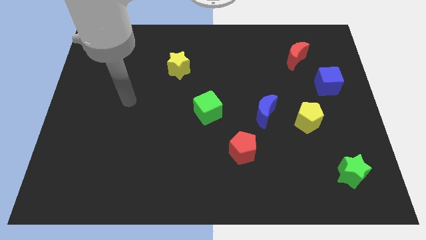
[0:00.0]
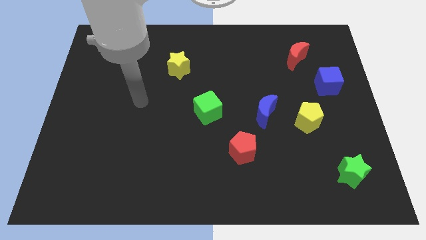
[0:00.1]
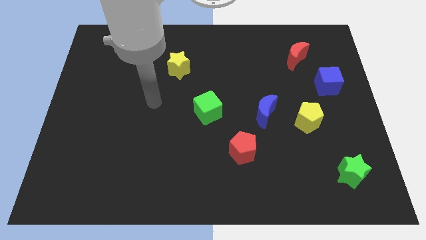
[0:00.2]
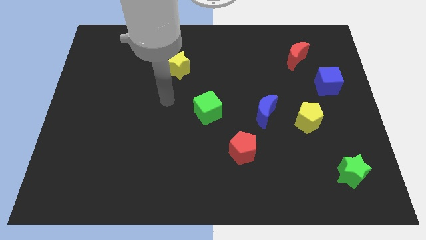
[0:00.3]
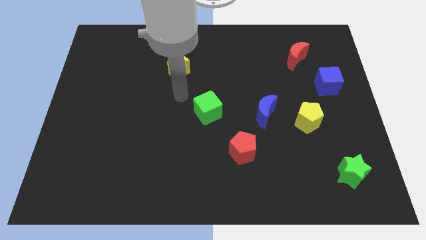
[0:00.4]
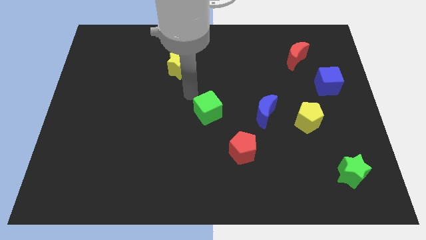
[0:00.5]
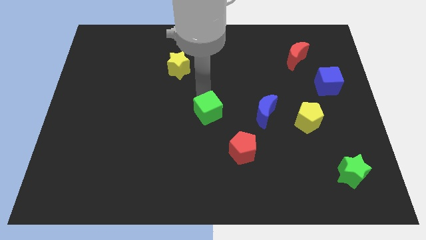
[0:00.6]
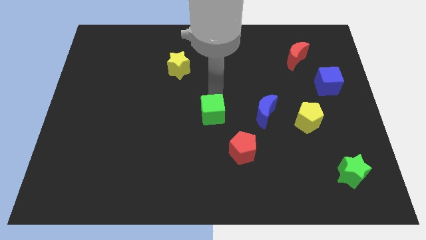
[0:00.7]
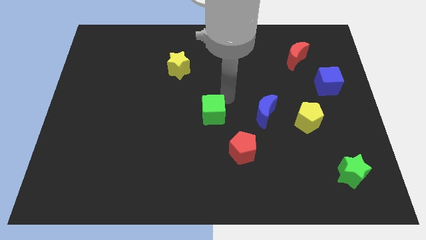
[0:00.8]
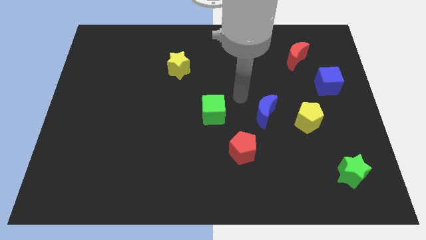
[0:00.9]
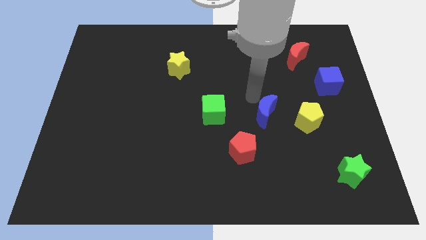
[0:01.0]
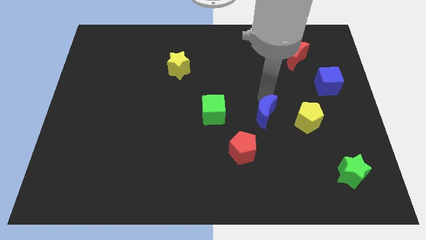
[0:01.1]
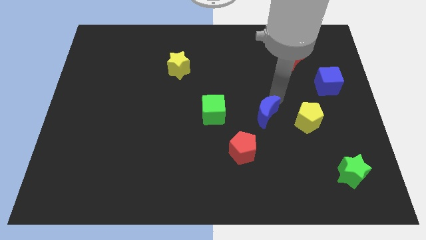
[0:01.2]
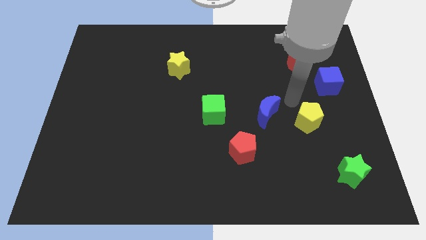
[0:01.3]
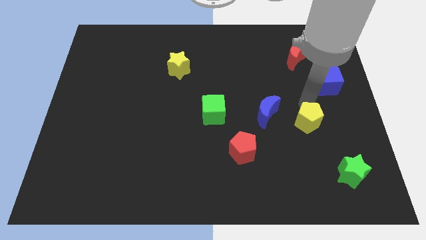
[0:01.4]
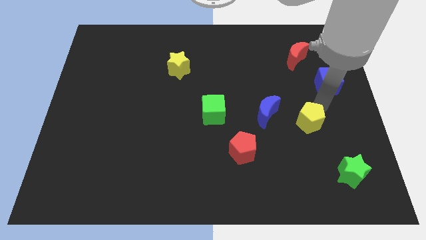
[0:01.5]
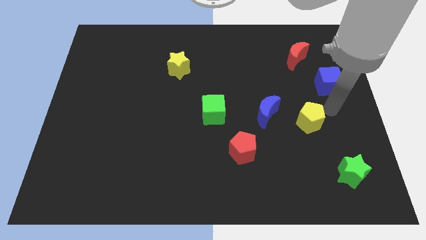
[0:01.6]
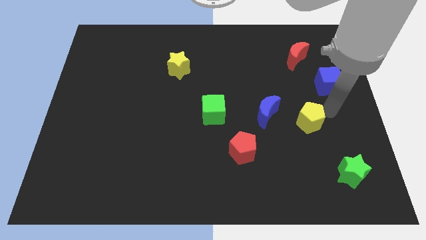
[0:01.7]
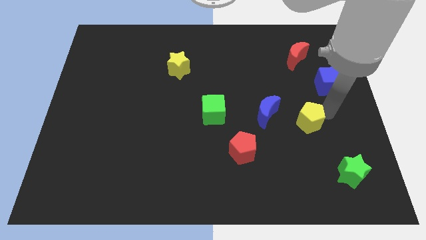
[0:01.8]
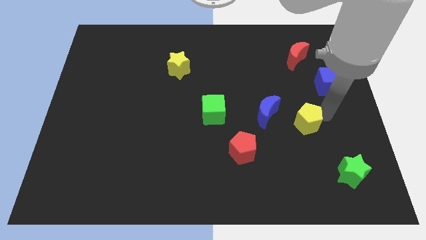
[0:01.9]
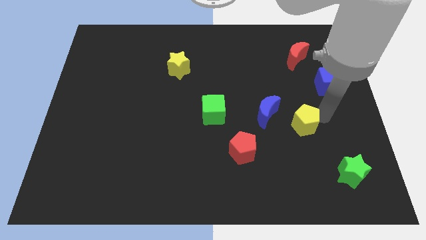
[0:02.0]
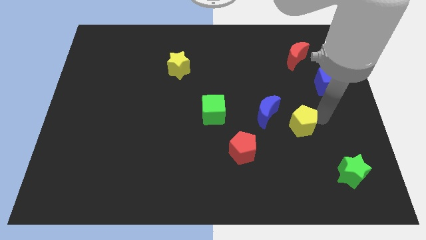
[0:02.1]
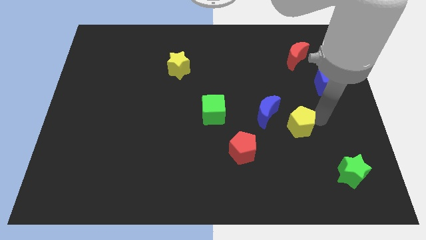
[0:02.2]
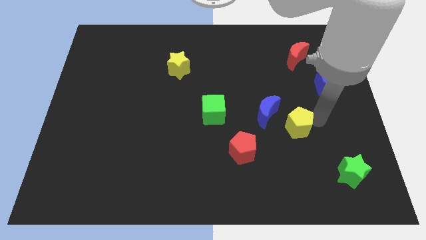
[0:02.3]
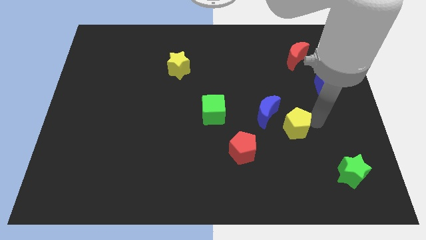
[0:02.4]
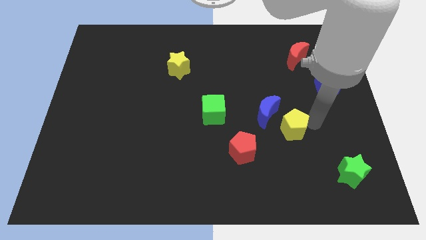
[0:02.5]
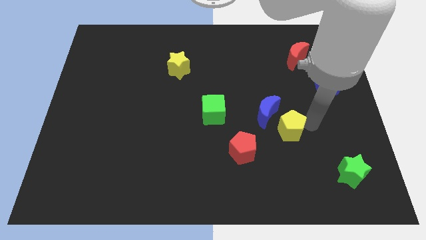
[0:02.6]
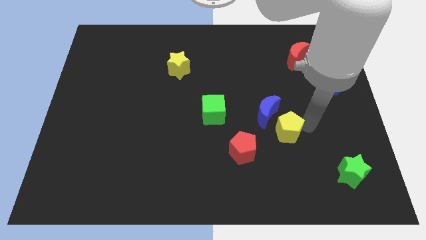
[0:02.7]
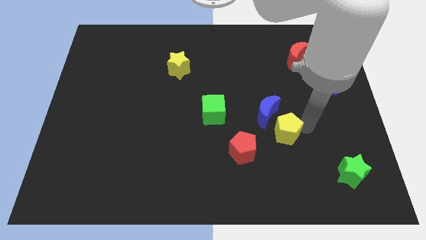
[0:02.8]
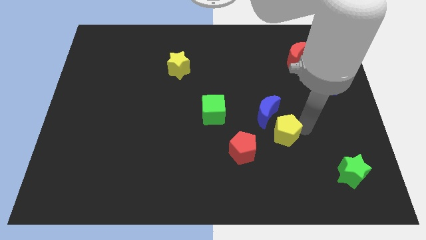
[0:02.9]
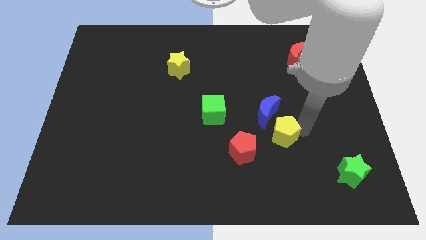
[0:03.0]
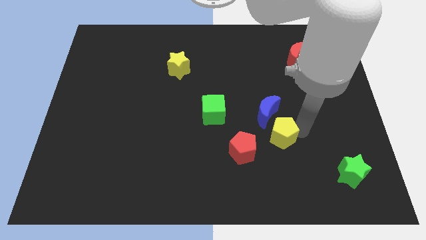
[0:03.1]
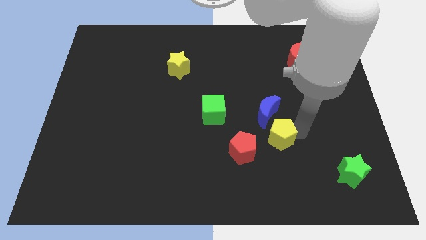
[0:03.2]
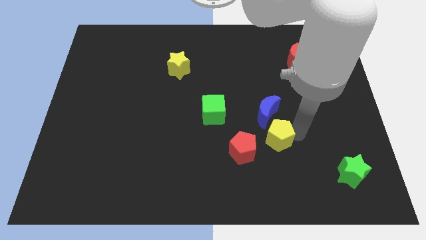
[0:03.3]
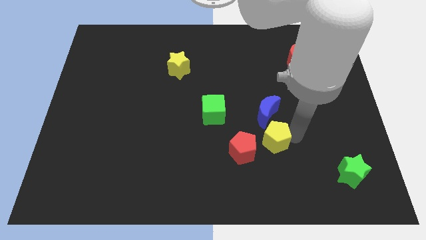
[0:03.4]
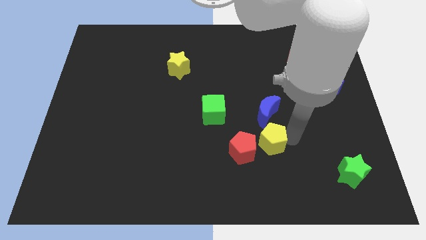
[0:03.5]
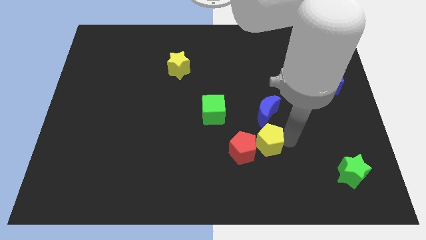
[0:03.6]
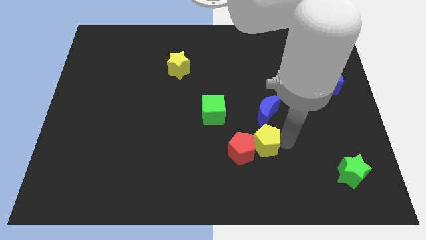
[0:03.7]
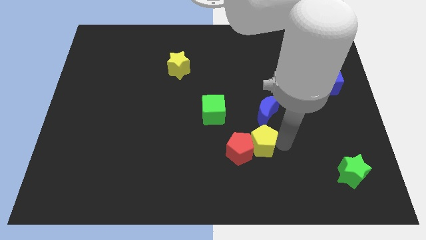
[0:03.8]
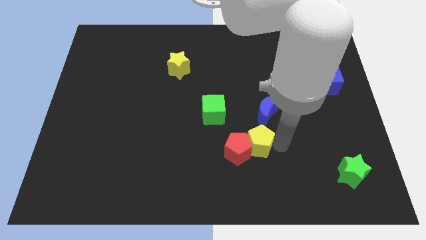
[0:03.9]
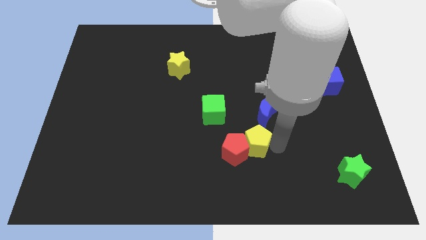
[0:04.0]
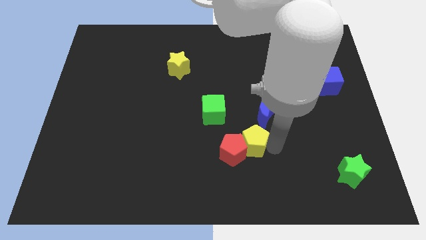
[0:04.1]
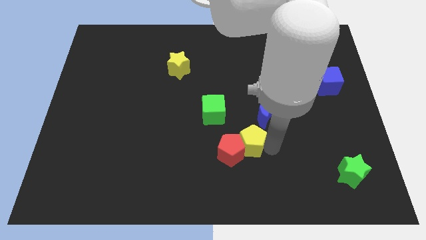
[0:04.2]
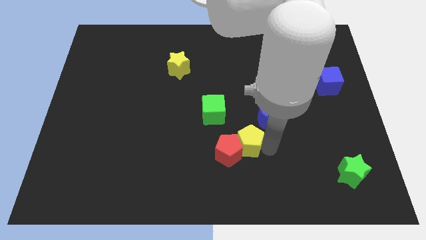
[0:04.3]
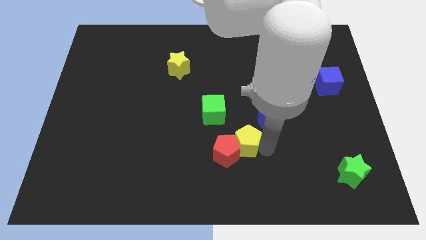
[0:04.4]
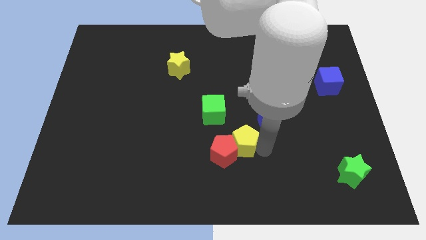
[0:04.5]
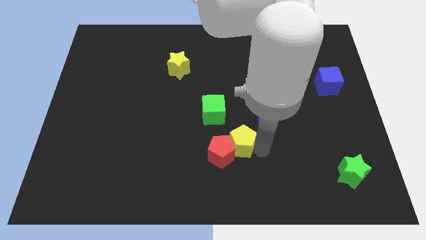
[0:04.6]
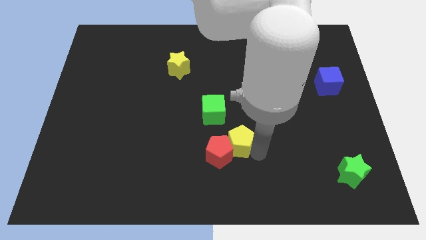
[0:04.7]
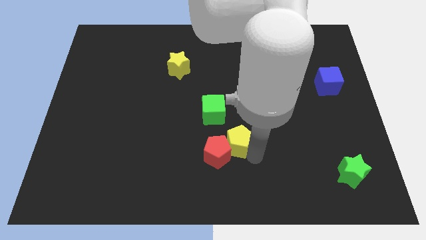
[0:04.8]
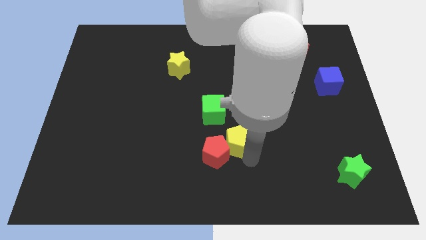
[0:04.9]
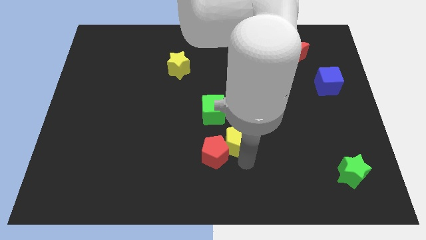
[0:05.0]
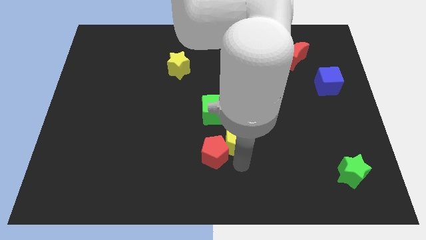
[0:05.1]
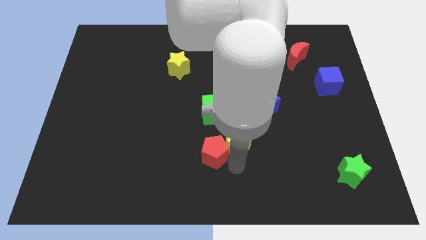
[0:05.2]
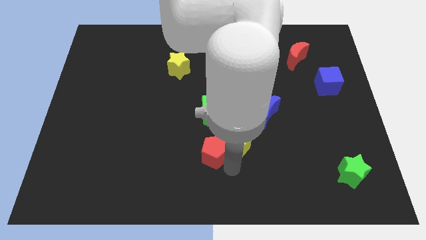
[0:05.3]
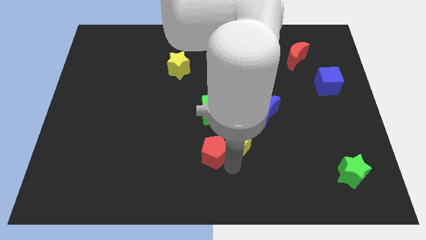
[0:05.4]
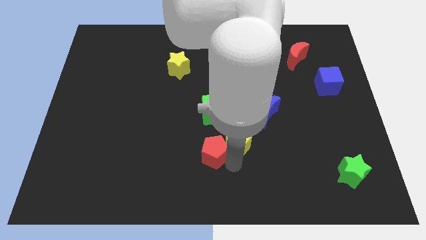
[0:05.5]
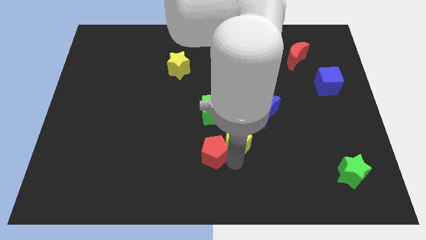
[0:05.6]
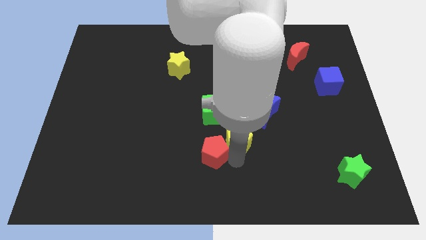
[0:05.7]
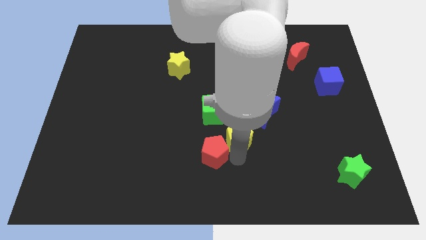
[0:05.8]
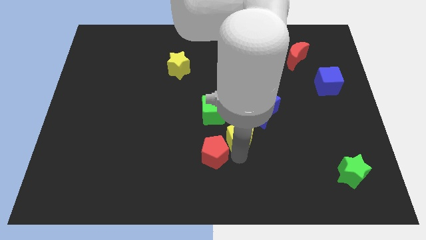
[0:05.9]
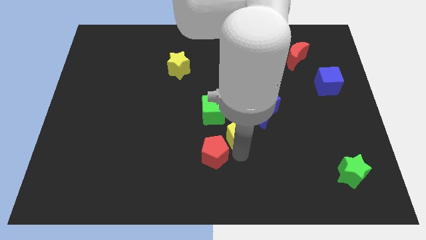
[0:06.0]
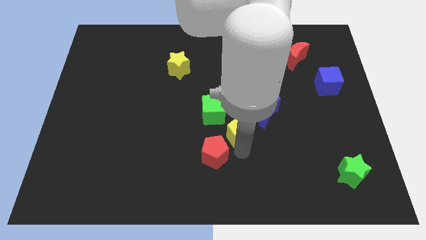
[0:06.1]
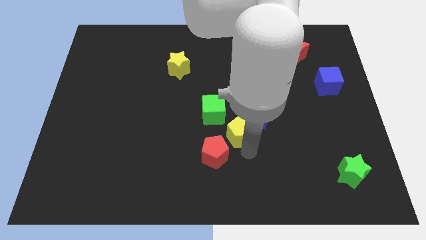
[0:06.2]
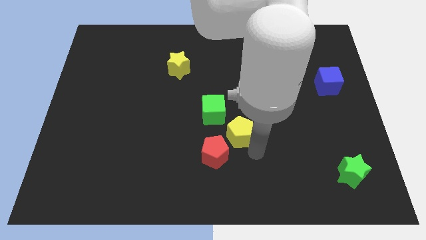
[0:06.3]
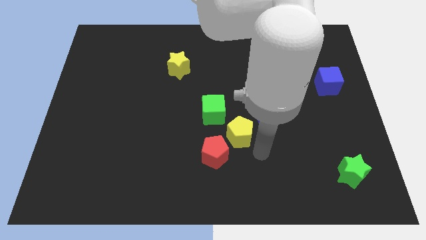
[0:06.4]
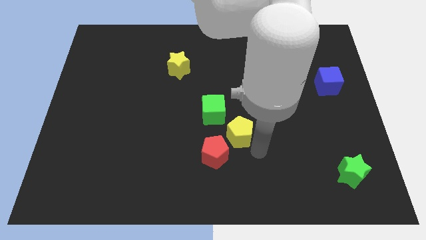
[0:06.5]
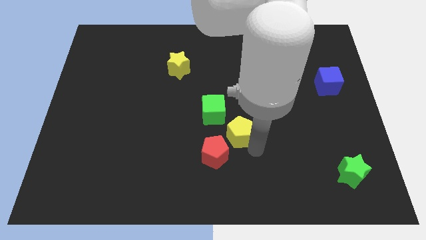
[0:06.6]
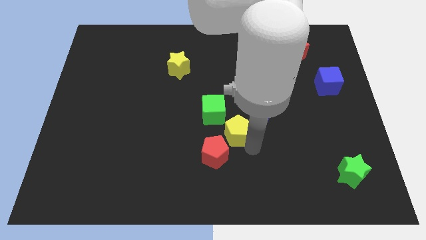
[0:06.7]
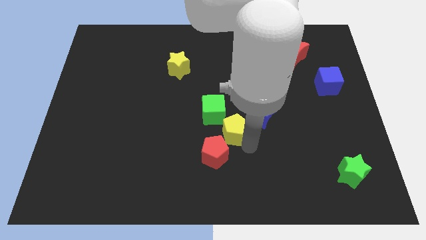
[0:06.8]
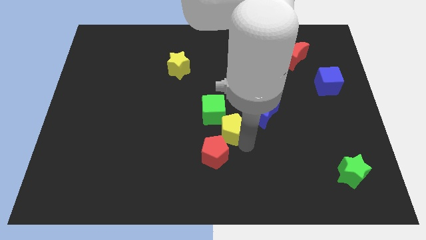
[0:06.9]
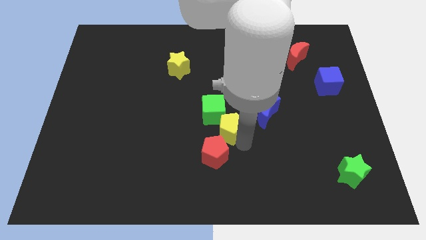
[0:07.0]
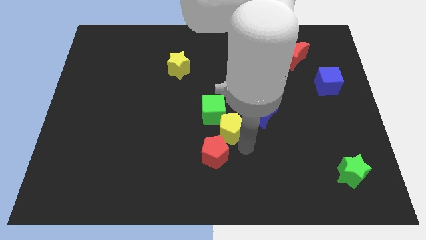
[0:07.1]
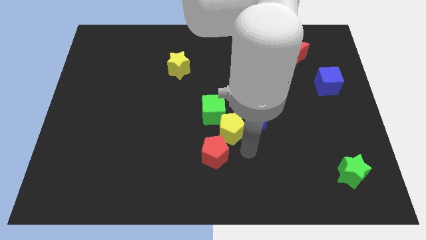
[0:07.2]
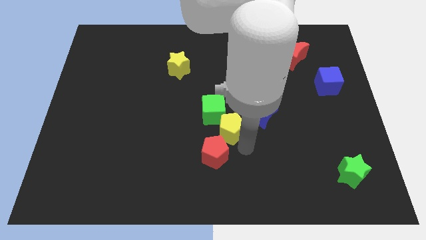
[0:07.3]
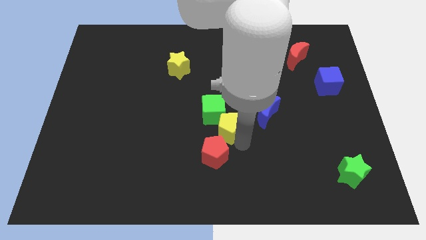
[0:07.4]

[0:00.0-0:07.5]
move the yellow pentagon towards the green cube
